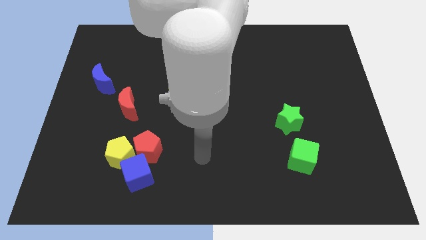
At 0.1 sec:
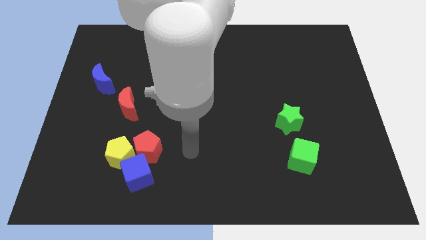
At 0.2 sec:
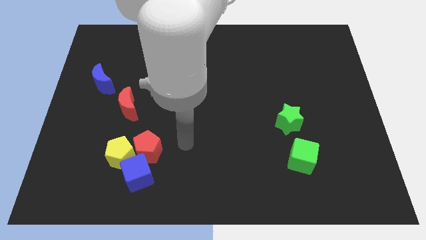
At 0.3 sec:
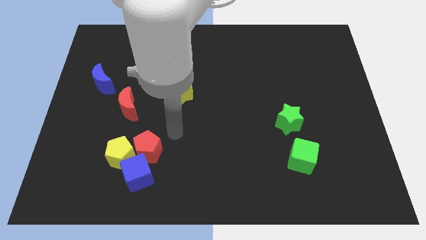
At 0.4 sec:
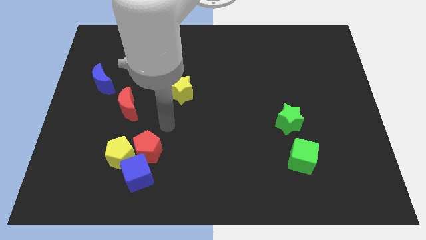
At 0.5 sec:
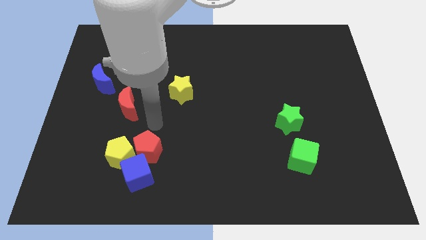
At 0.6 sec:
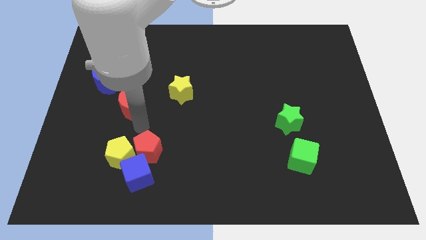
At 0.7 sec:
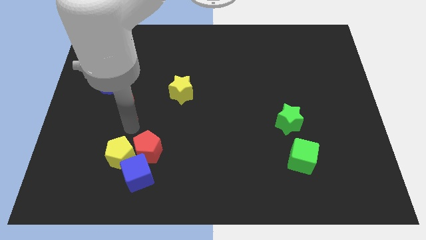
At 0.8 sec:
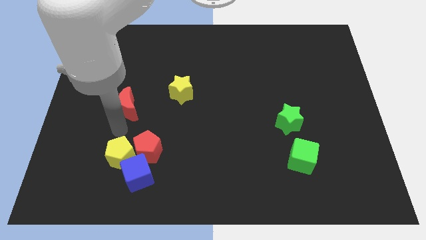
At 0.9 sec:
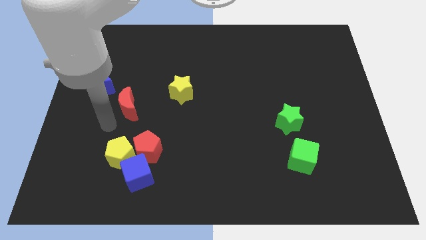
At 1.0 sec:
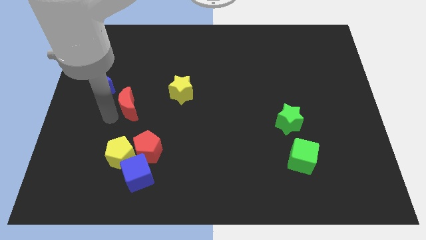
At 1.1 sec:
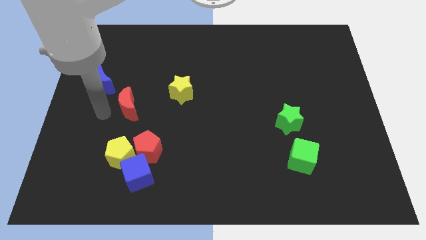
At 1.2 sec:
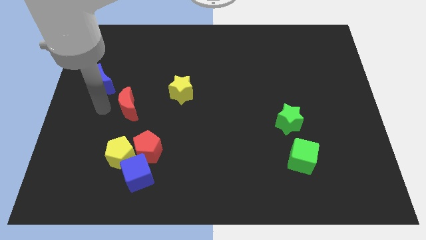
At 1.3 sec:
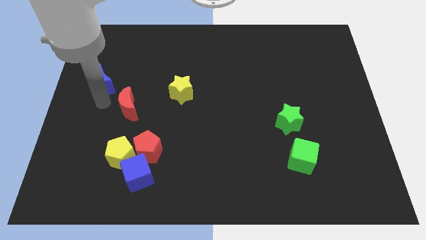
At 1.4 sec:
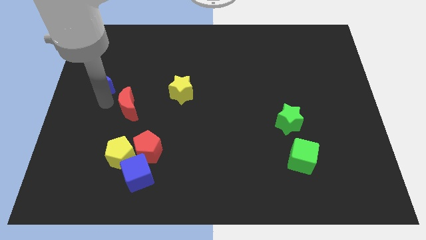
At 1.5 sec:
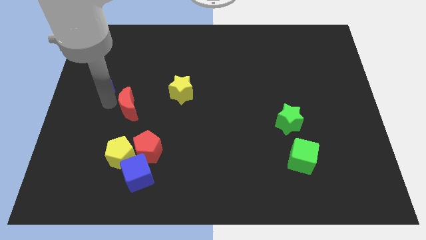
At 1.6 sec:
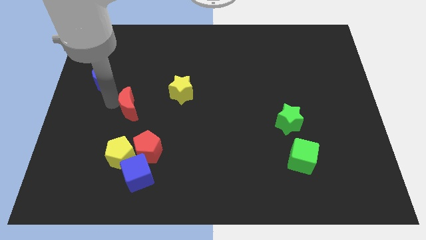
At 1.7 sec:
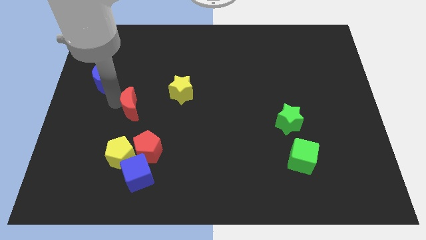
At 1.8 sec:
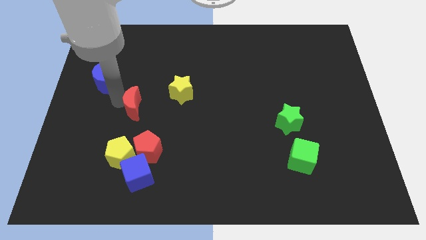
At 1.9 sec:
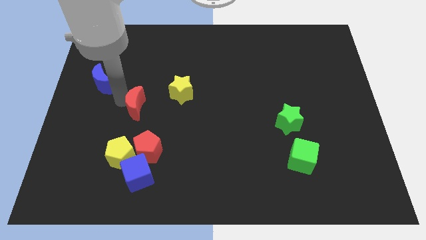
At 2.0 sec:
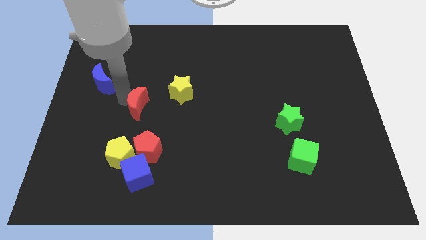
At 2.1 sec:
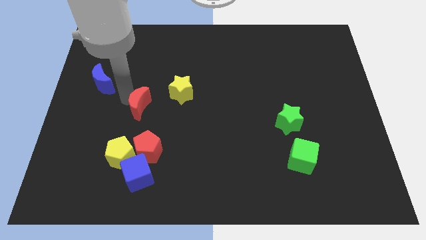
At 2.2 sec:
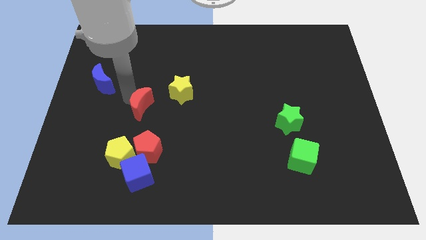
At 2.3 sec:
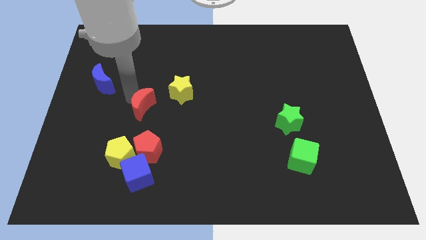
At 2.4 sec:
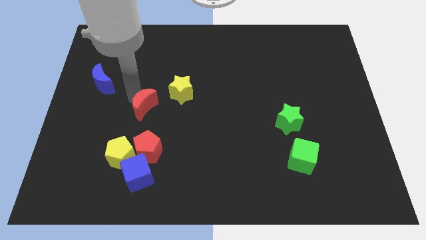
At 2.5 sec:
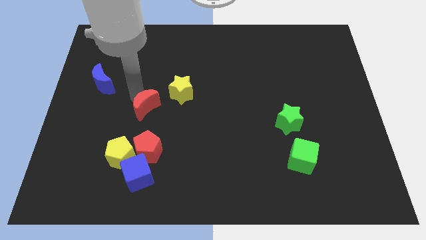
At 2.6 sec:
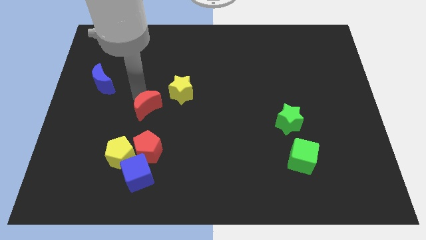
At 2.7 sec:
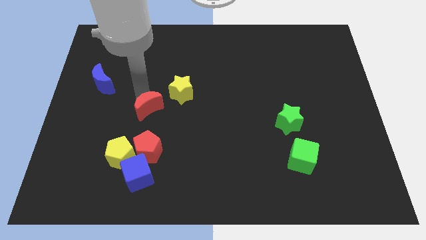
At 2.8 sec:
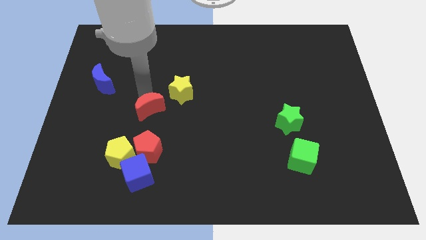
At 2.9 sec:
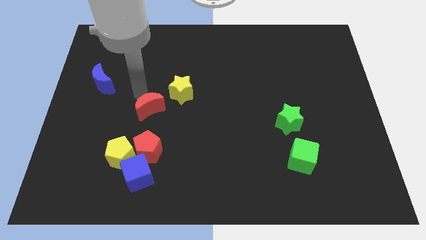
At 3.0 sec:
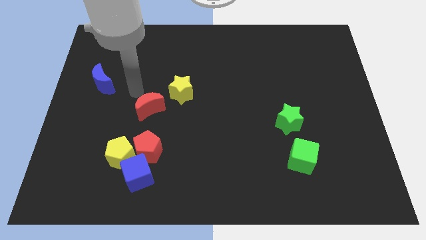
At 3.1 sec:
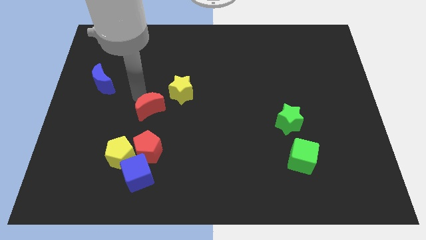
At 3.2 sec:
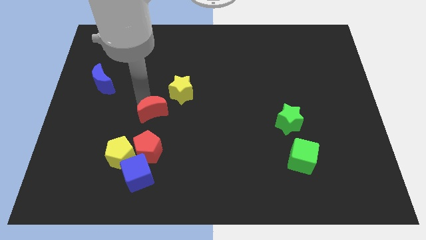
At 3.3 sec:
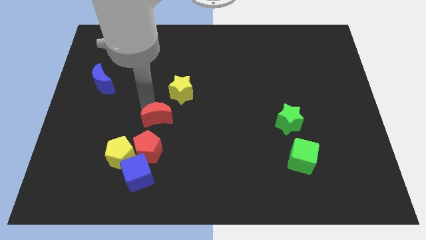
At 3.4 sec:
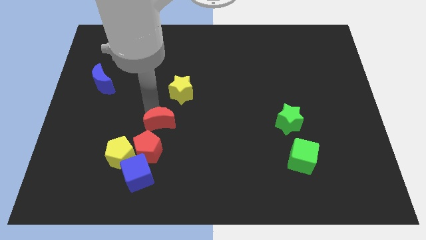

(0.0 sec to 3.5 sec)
slightly slide the red moon down and then right

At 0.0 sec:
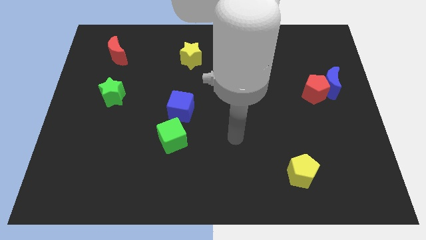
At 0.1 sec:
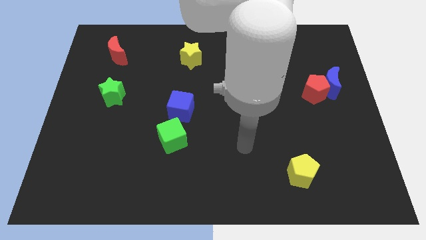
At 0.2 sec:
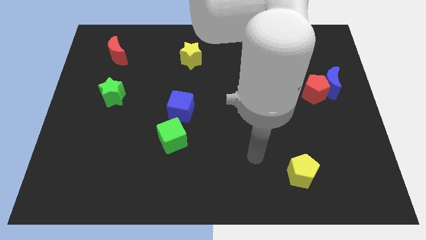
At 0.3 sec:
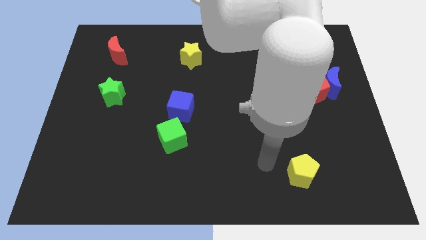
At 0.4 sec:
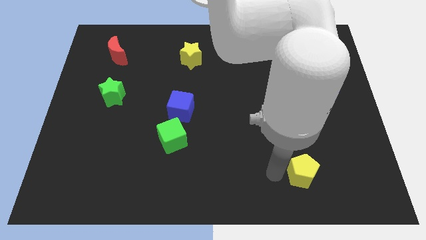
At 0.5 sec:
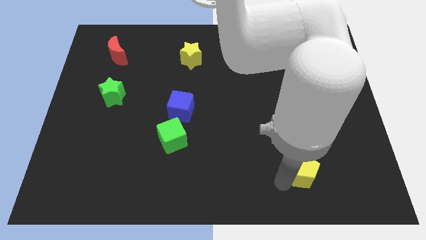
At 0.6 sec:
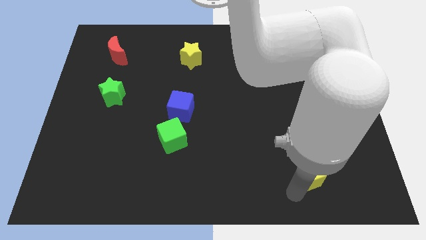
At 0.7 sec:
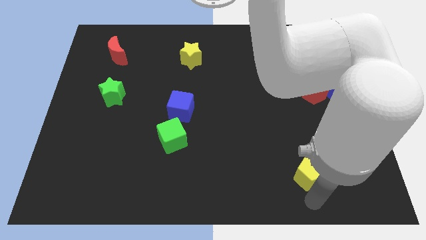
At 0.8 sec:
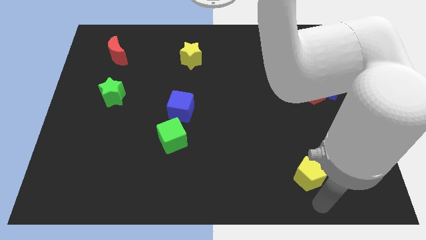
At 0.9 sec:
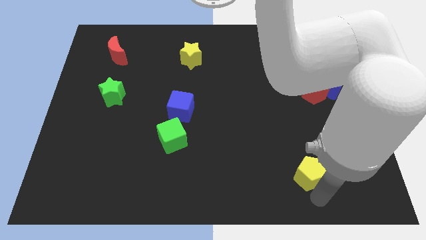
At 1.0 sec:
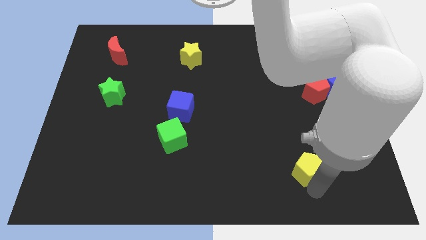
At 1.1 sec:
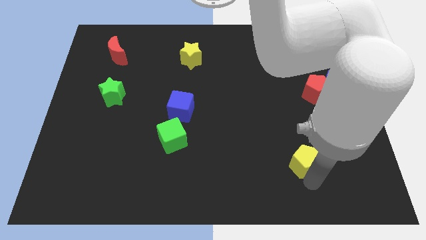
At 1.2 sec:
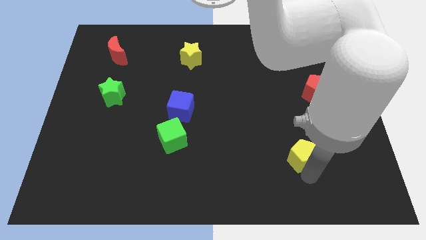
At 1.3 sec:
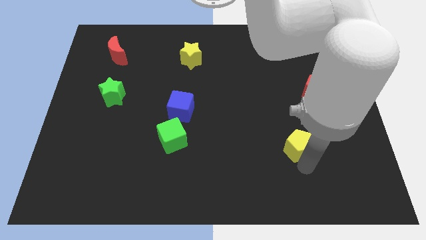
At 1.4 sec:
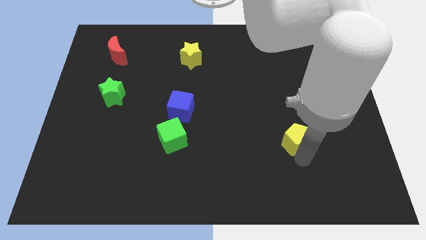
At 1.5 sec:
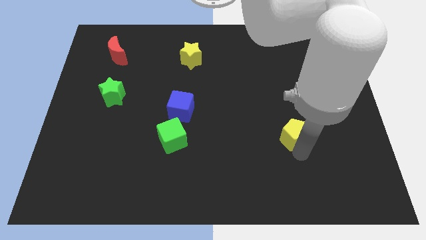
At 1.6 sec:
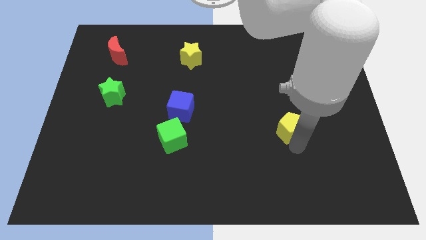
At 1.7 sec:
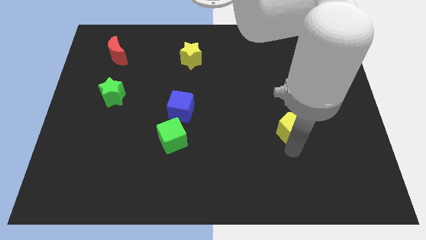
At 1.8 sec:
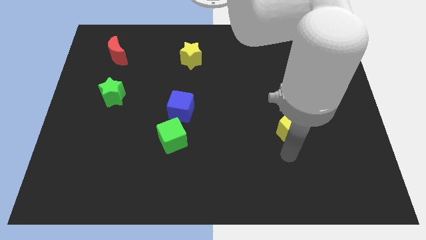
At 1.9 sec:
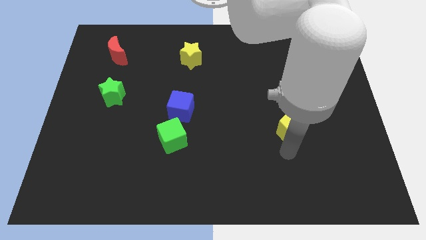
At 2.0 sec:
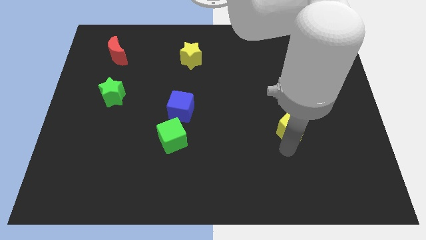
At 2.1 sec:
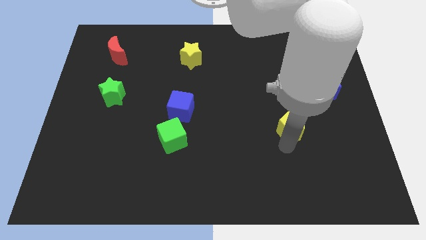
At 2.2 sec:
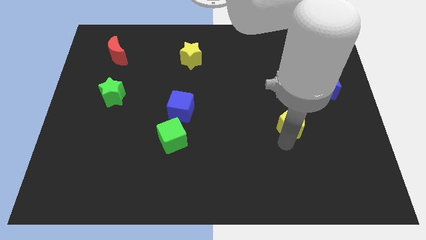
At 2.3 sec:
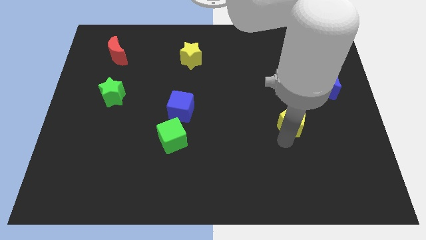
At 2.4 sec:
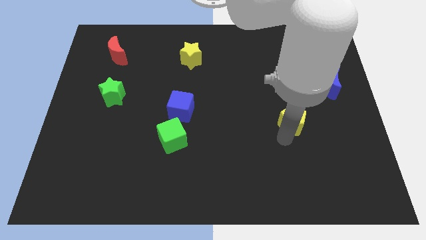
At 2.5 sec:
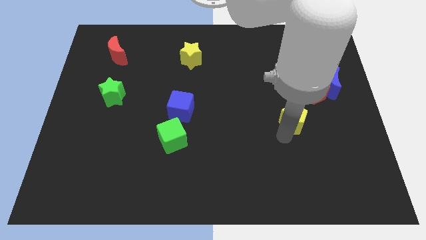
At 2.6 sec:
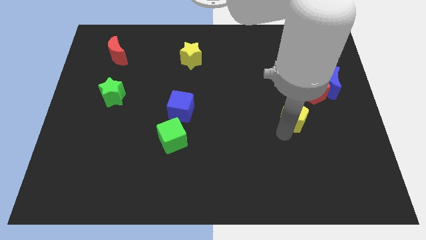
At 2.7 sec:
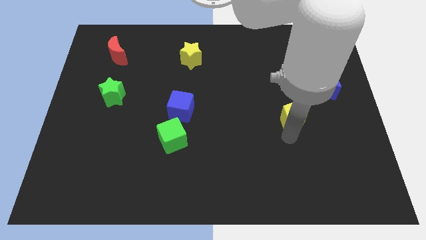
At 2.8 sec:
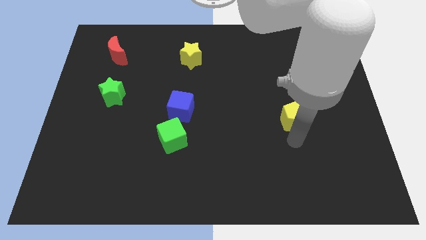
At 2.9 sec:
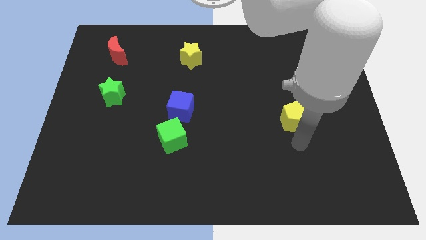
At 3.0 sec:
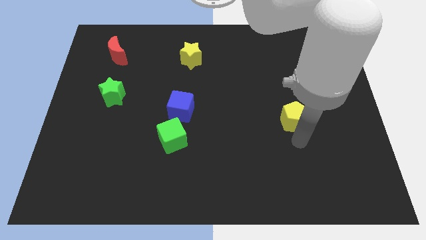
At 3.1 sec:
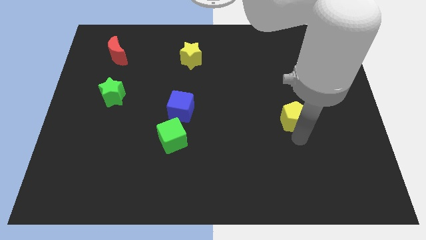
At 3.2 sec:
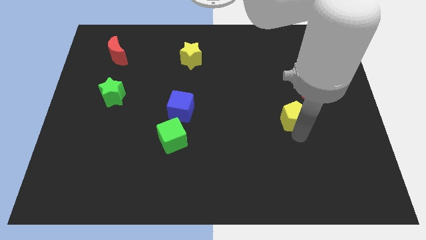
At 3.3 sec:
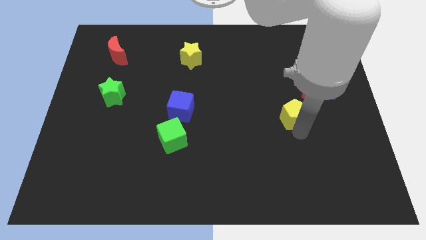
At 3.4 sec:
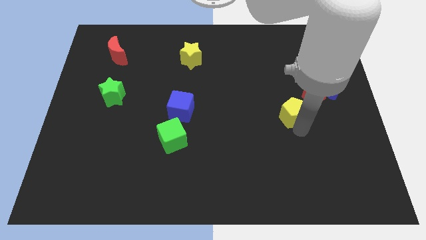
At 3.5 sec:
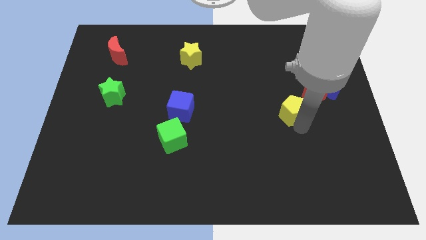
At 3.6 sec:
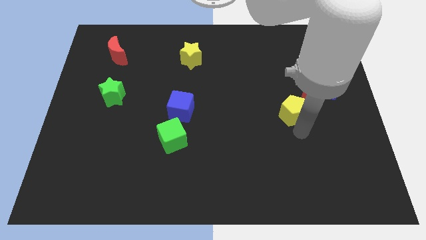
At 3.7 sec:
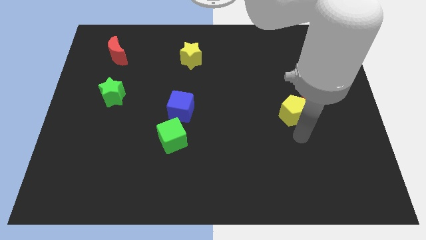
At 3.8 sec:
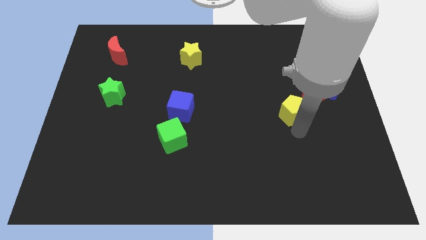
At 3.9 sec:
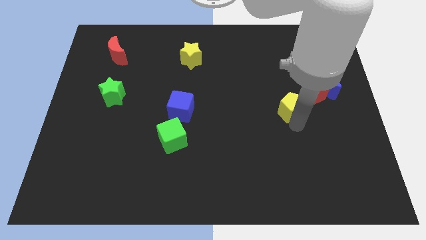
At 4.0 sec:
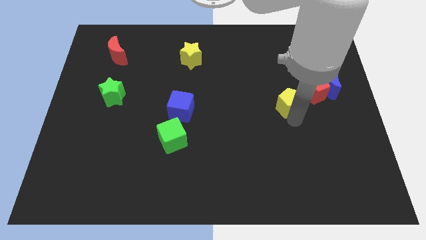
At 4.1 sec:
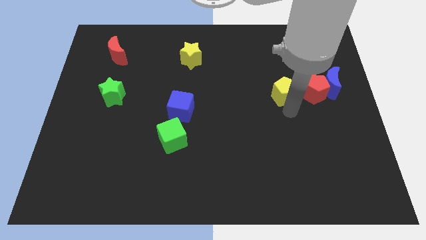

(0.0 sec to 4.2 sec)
push the yellow pentagon upwards

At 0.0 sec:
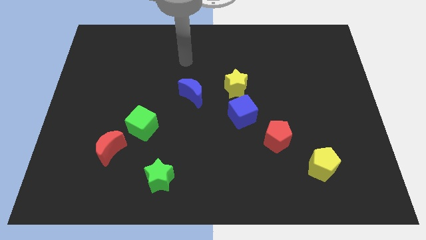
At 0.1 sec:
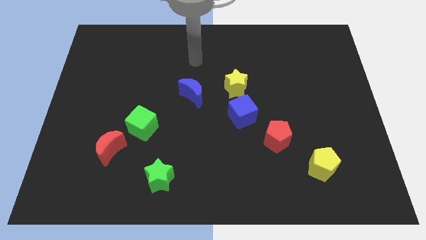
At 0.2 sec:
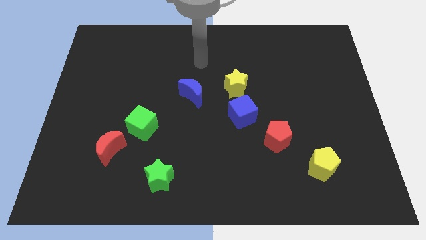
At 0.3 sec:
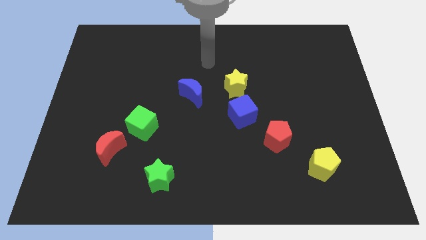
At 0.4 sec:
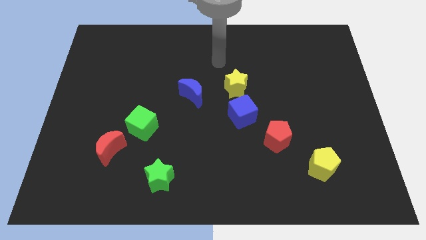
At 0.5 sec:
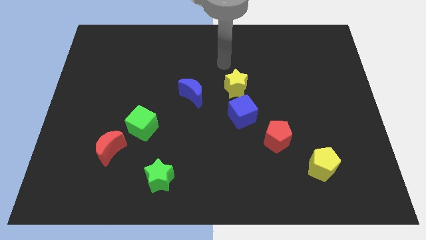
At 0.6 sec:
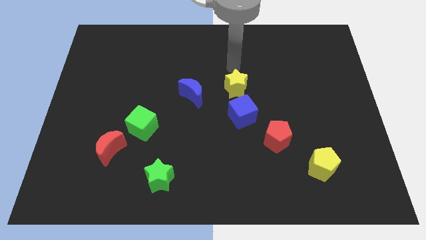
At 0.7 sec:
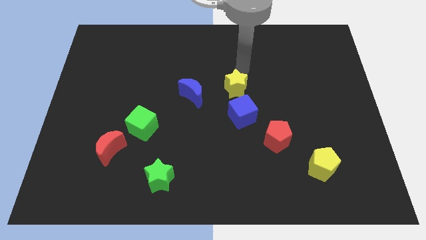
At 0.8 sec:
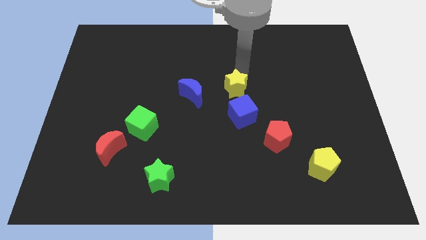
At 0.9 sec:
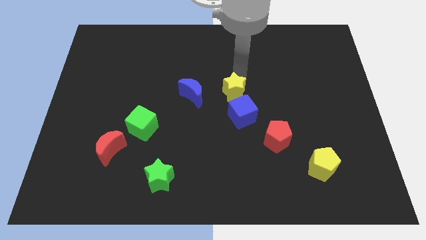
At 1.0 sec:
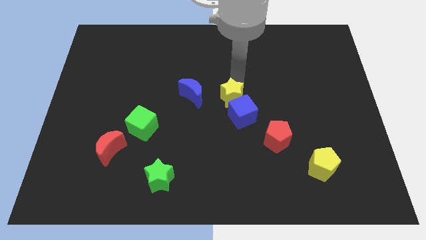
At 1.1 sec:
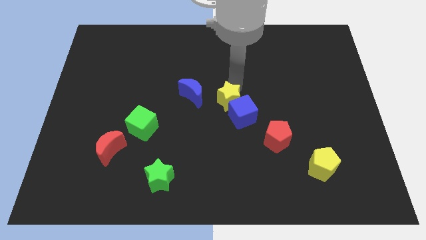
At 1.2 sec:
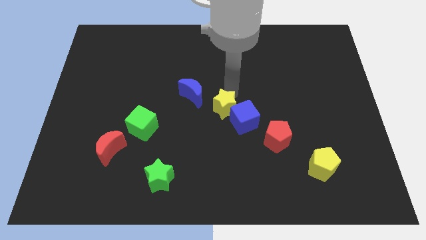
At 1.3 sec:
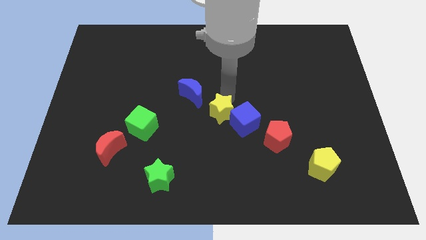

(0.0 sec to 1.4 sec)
push the yellow star down slightly
